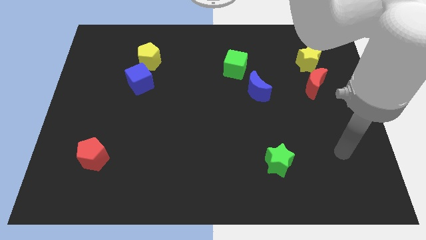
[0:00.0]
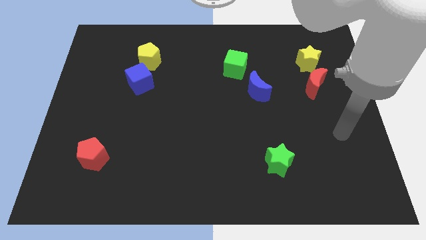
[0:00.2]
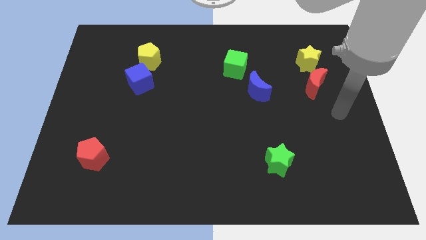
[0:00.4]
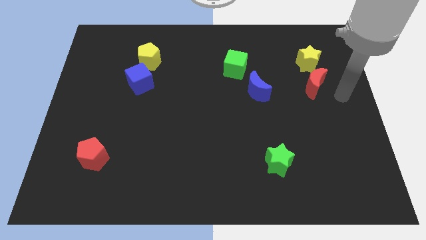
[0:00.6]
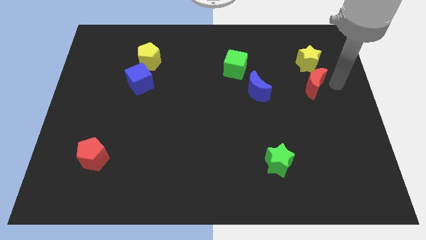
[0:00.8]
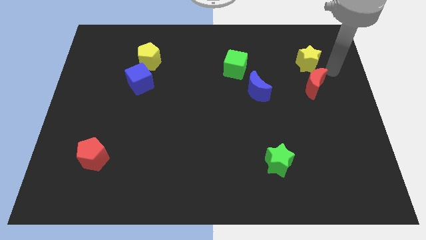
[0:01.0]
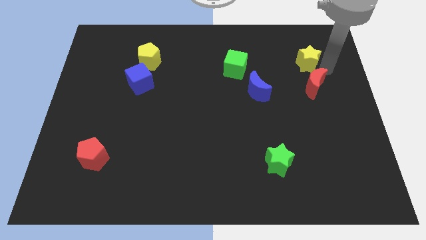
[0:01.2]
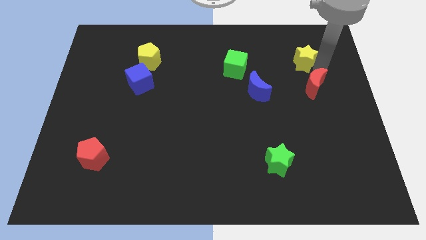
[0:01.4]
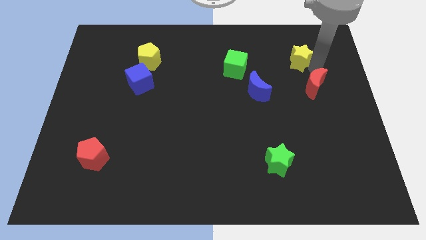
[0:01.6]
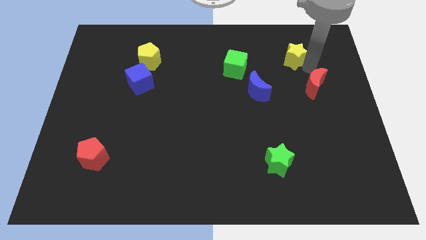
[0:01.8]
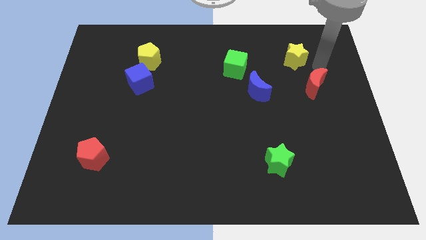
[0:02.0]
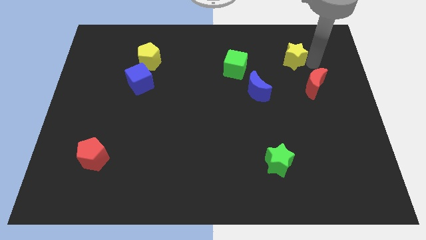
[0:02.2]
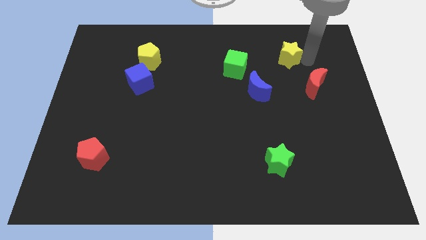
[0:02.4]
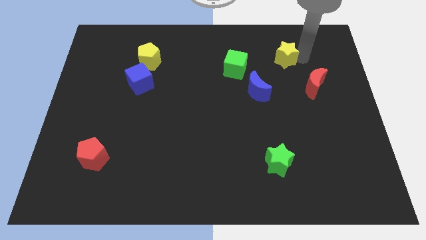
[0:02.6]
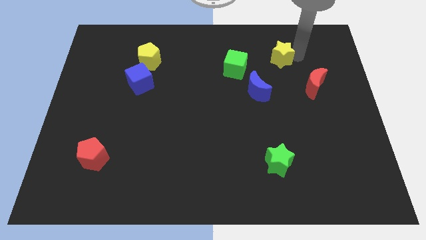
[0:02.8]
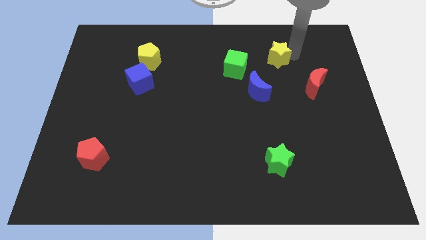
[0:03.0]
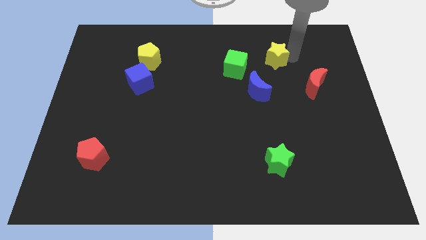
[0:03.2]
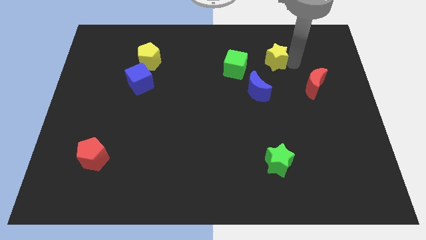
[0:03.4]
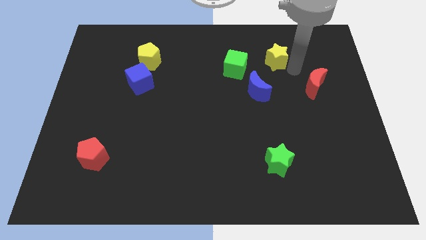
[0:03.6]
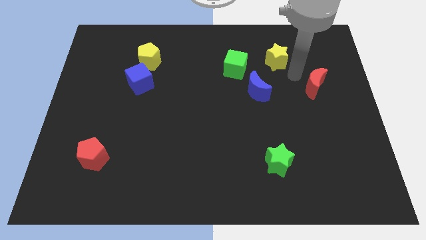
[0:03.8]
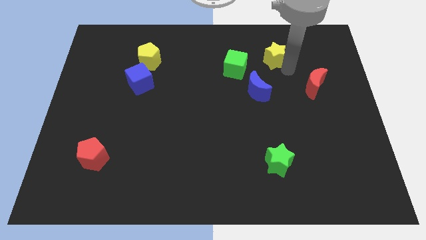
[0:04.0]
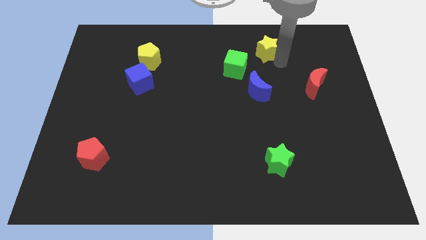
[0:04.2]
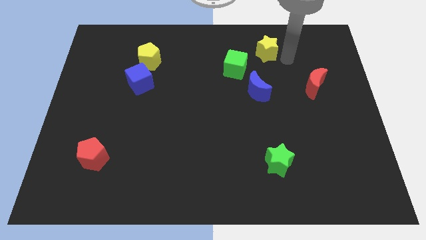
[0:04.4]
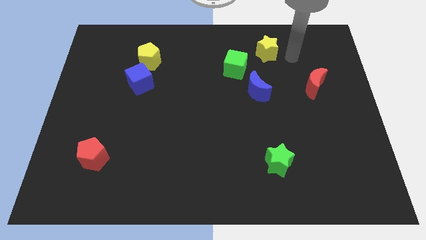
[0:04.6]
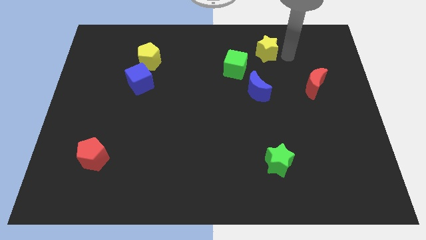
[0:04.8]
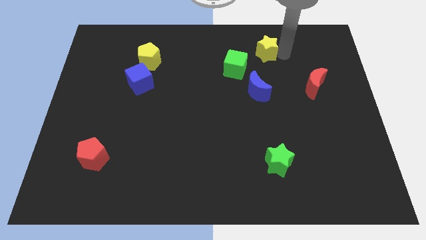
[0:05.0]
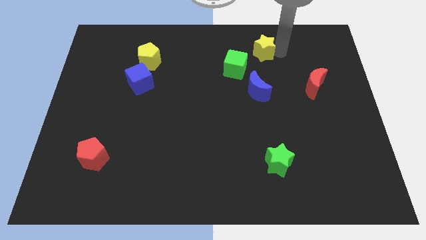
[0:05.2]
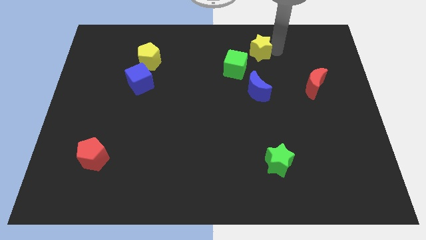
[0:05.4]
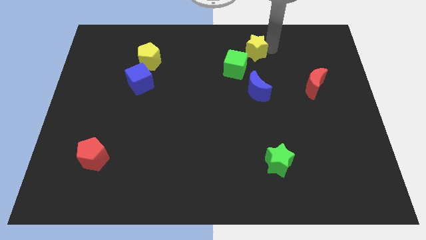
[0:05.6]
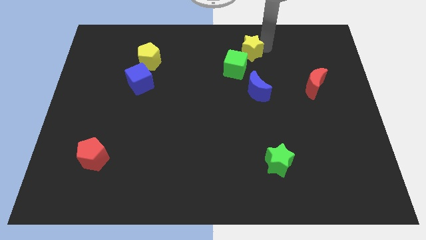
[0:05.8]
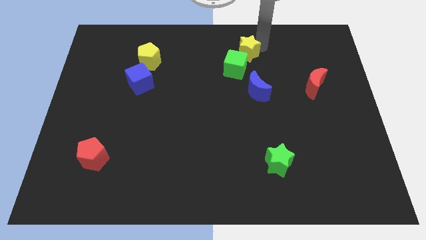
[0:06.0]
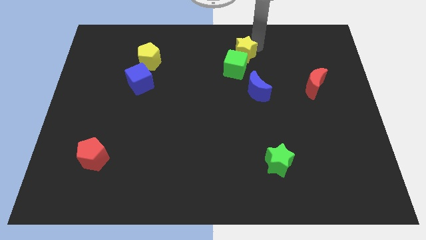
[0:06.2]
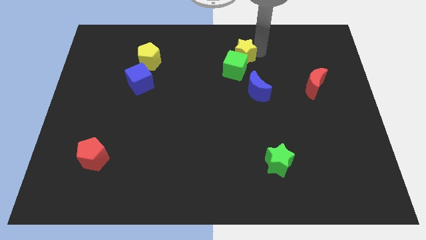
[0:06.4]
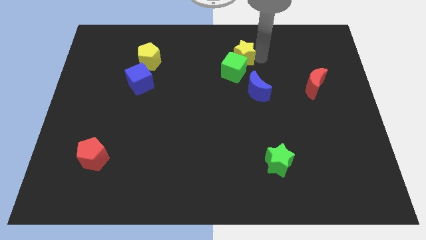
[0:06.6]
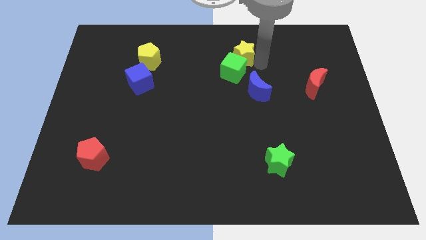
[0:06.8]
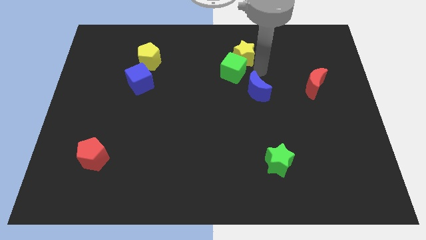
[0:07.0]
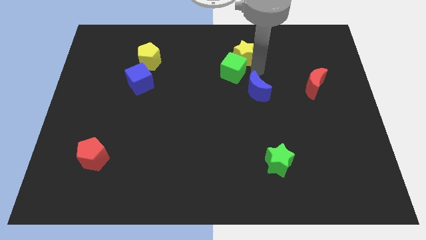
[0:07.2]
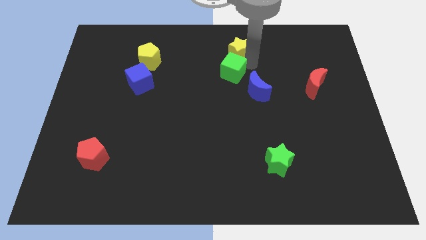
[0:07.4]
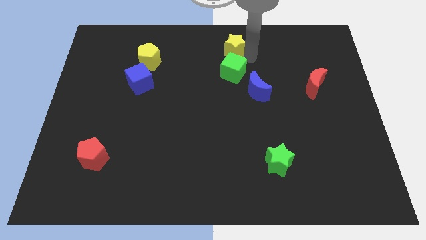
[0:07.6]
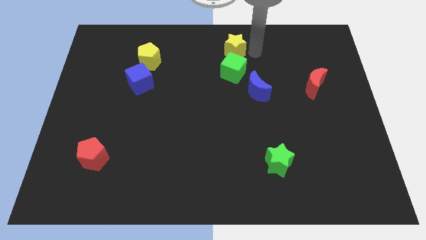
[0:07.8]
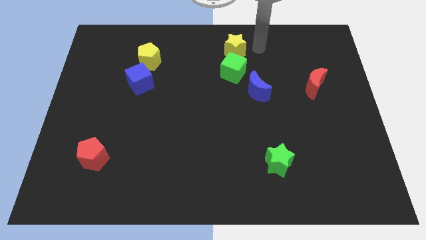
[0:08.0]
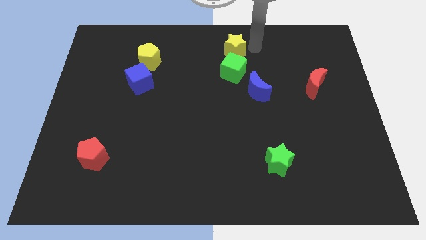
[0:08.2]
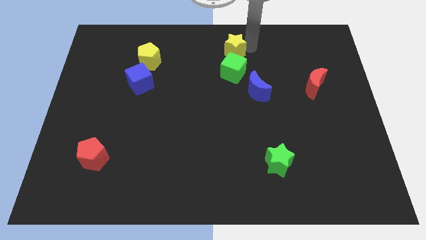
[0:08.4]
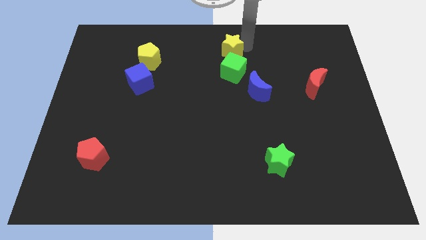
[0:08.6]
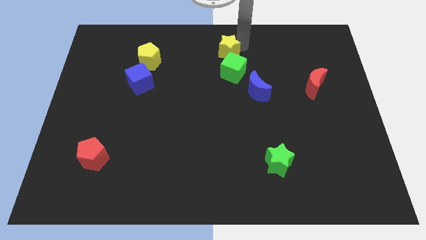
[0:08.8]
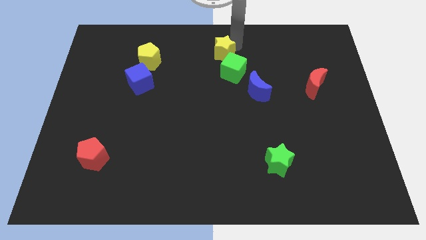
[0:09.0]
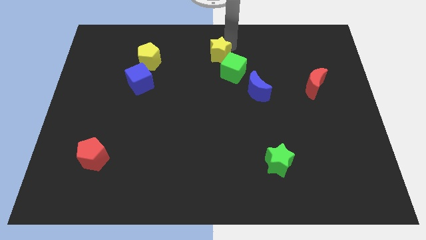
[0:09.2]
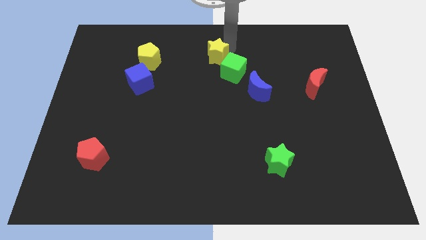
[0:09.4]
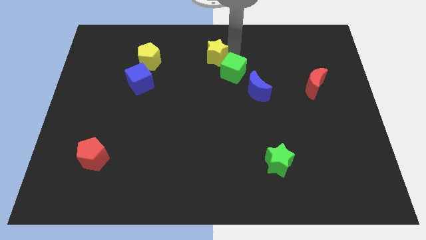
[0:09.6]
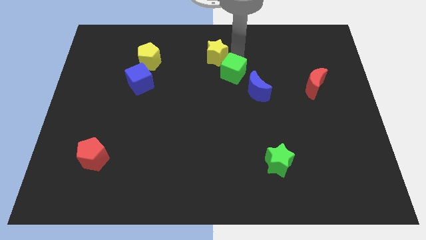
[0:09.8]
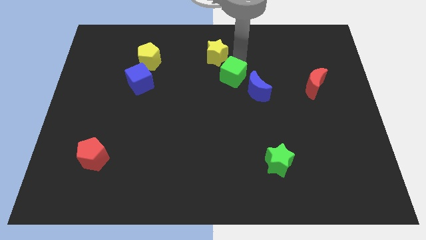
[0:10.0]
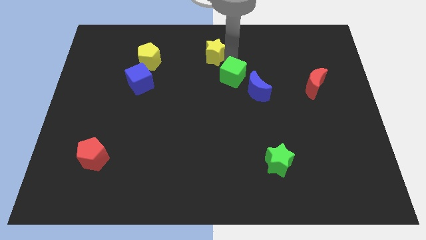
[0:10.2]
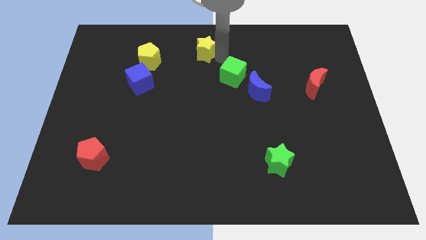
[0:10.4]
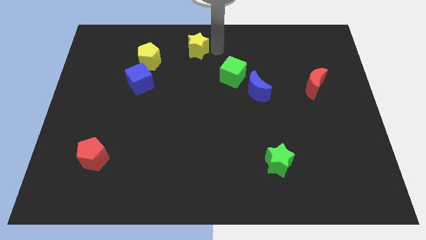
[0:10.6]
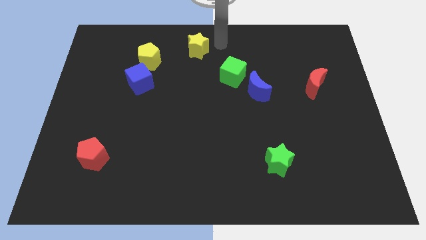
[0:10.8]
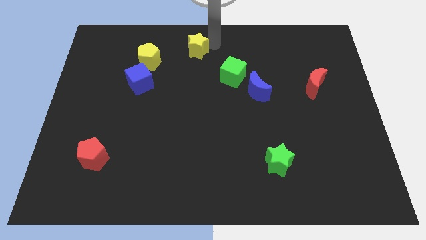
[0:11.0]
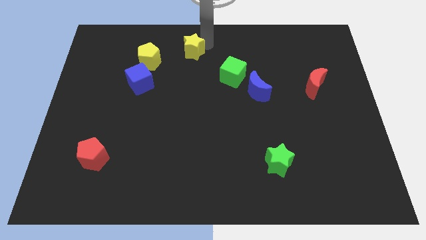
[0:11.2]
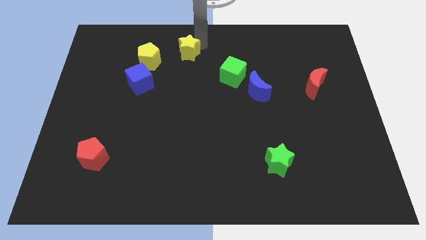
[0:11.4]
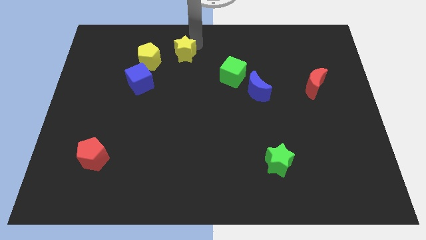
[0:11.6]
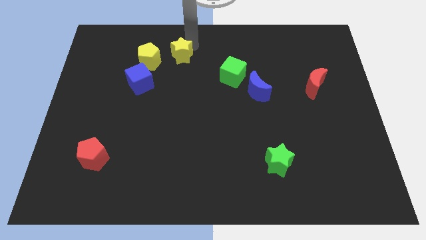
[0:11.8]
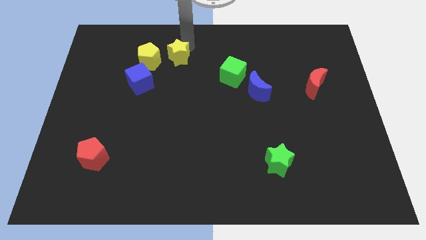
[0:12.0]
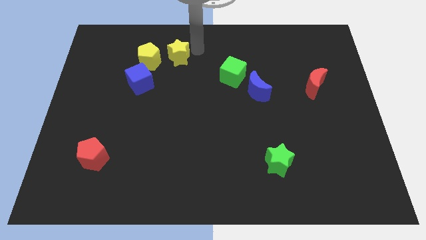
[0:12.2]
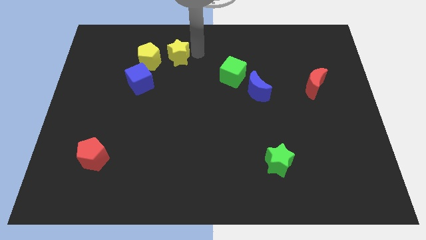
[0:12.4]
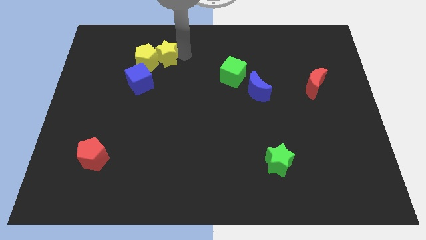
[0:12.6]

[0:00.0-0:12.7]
put the yellow star to the yellow pentagon
